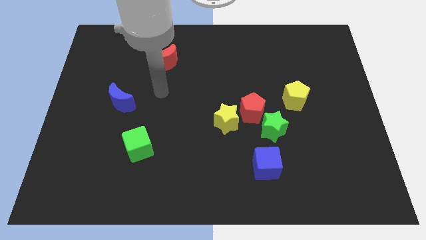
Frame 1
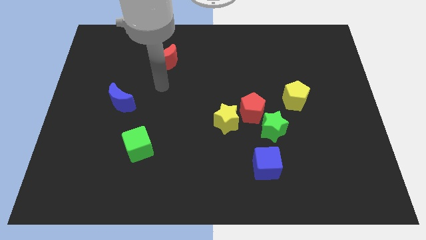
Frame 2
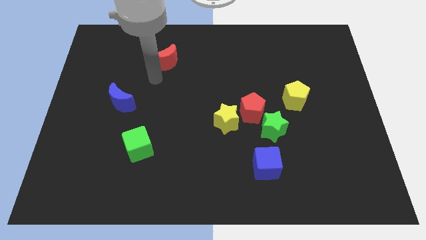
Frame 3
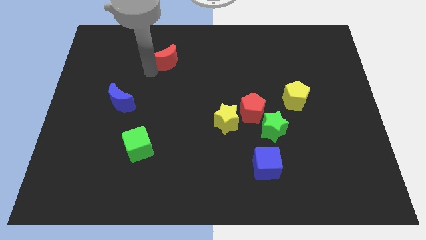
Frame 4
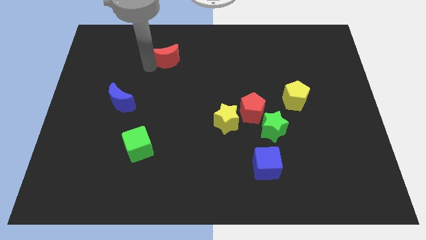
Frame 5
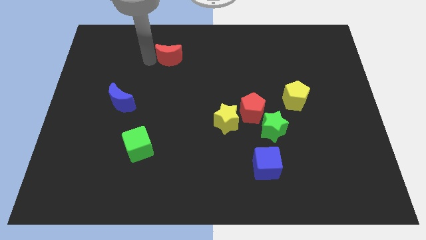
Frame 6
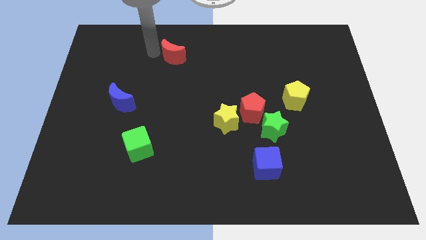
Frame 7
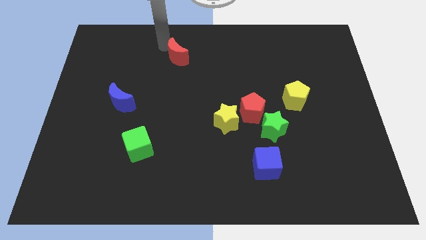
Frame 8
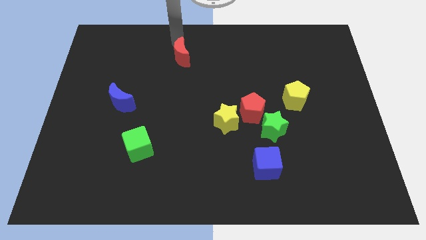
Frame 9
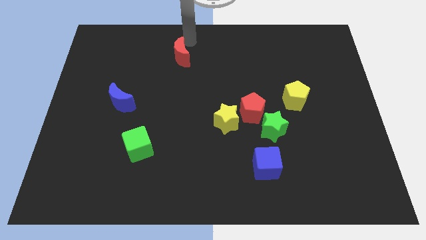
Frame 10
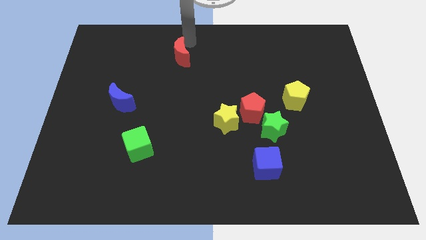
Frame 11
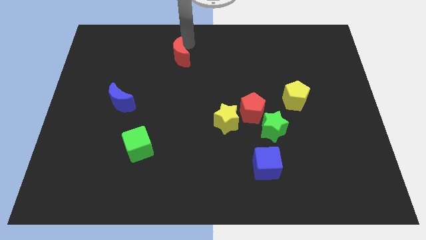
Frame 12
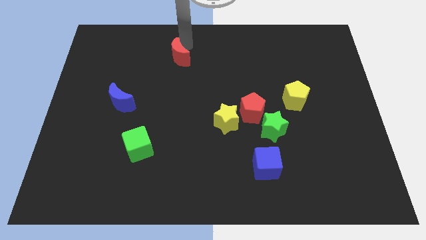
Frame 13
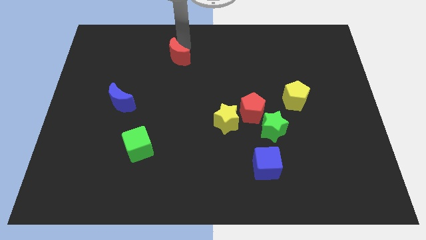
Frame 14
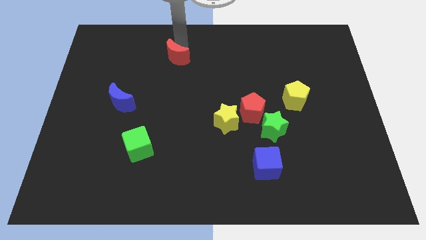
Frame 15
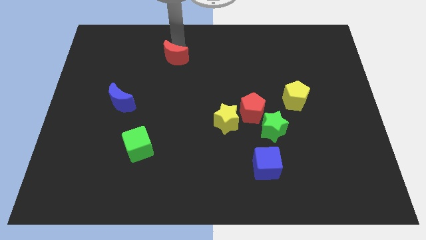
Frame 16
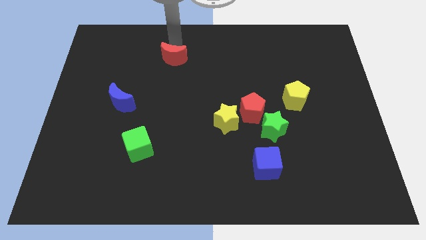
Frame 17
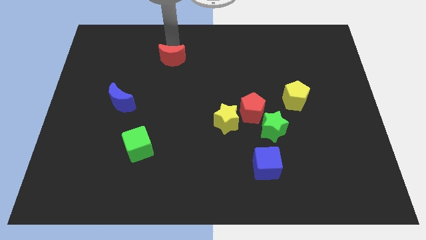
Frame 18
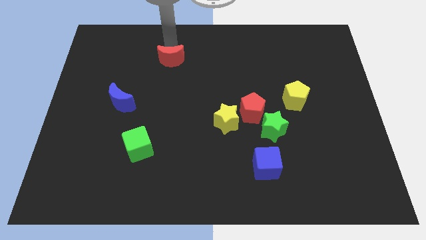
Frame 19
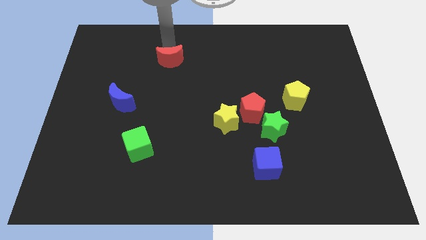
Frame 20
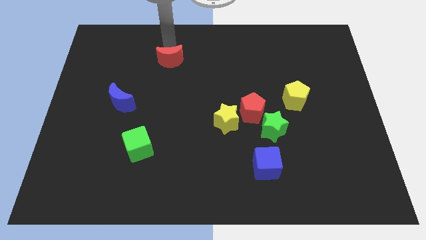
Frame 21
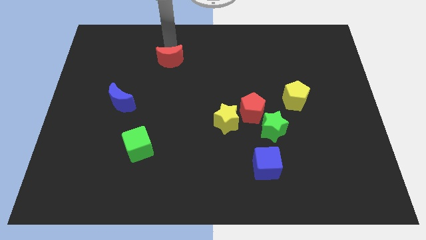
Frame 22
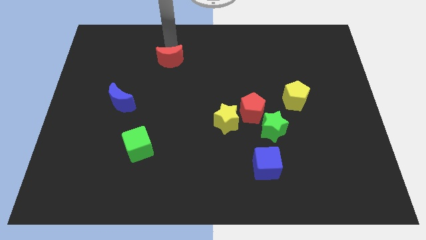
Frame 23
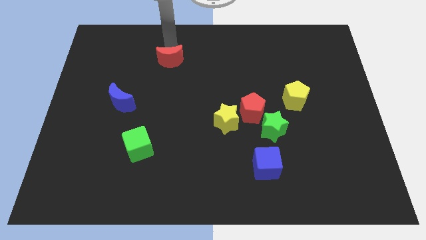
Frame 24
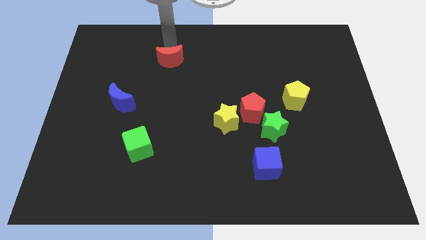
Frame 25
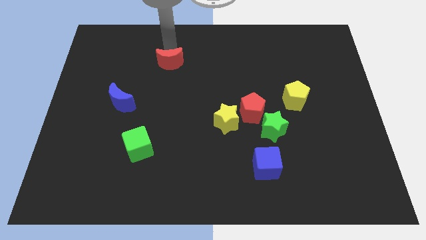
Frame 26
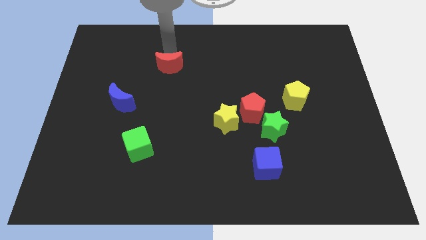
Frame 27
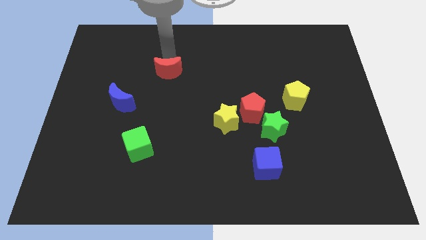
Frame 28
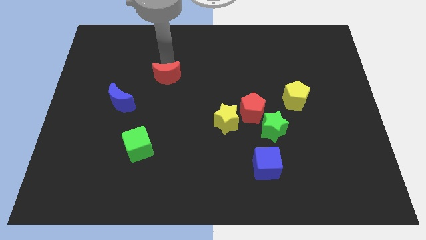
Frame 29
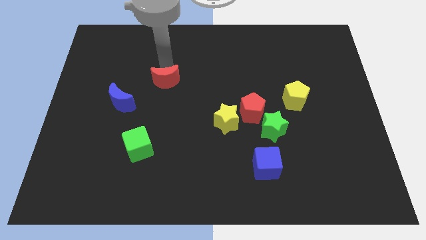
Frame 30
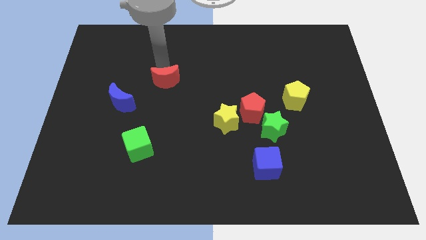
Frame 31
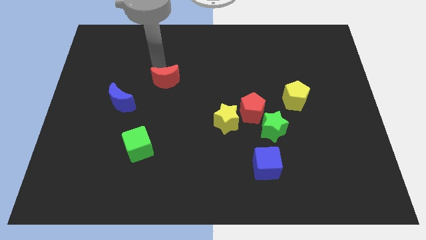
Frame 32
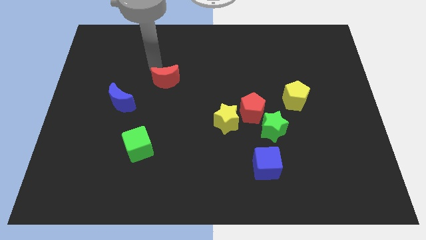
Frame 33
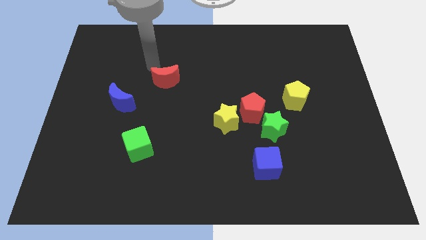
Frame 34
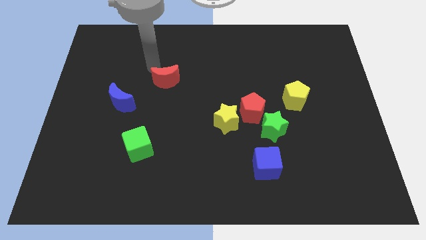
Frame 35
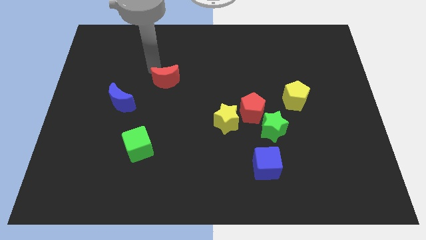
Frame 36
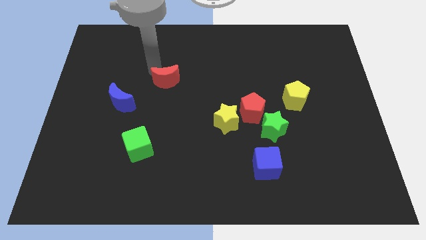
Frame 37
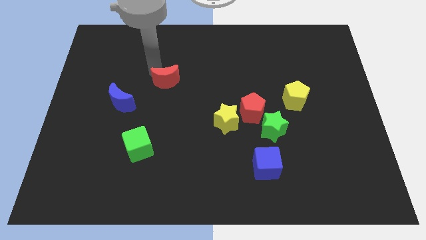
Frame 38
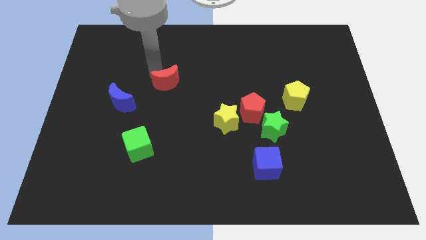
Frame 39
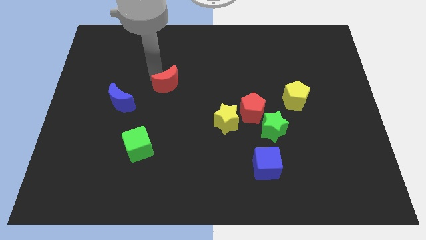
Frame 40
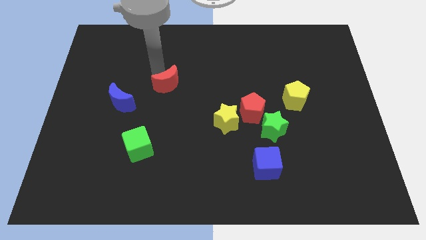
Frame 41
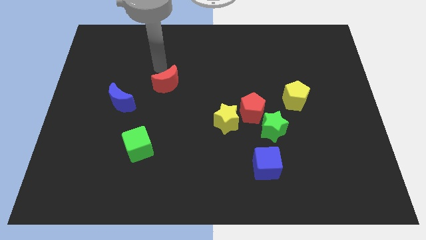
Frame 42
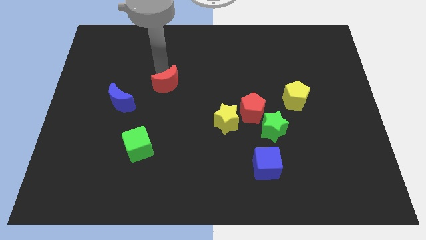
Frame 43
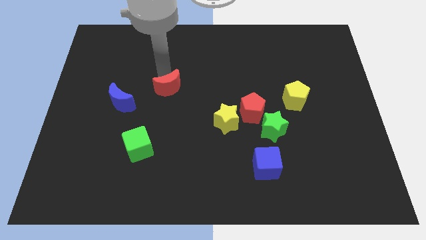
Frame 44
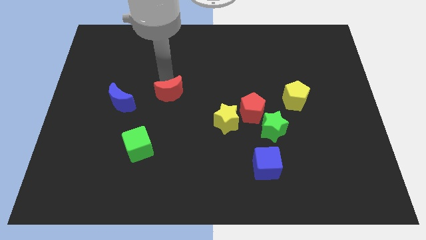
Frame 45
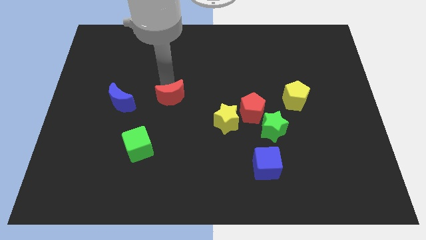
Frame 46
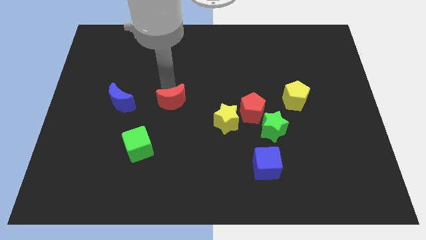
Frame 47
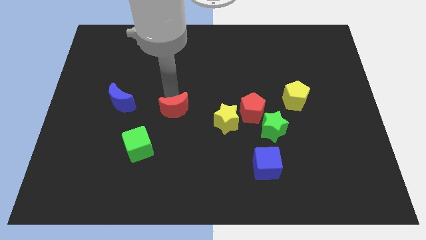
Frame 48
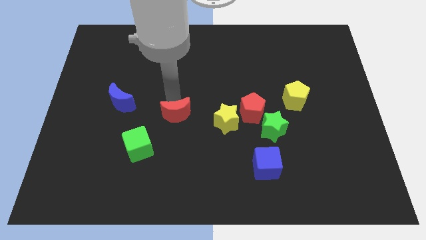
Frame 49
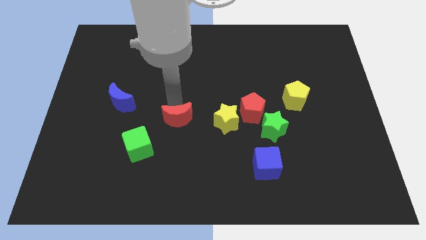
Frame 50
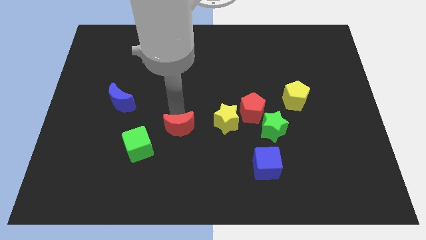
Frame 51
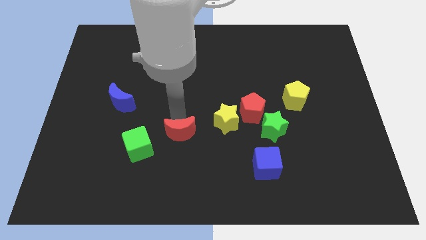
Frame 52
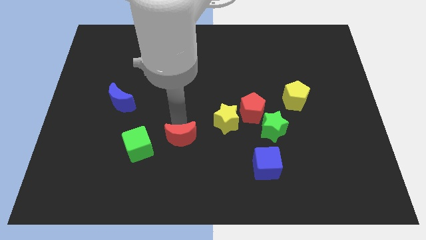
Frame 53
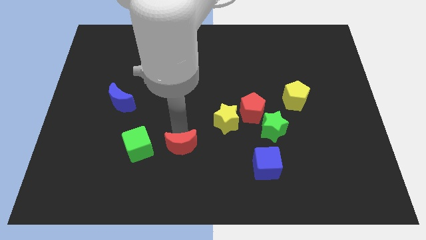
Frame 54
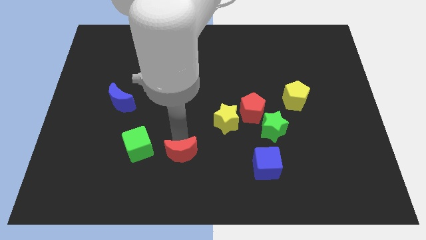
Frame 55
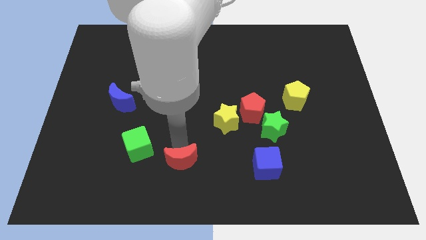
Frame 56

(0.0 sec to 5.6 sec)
push the red moon to the bottom side

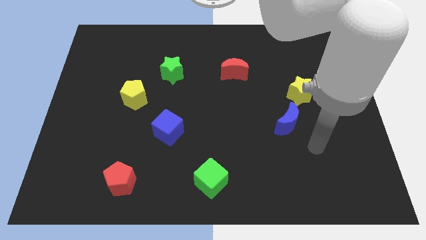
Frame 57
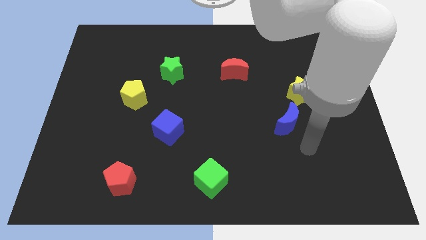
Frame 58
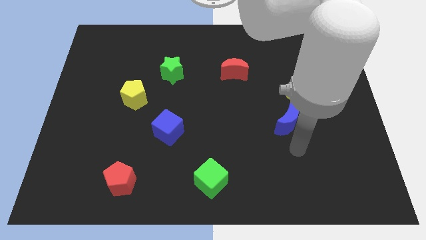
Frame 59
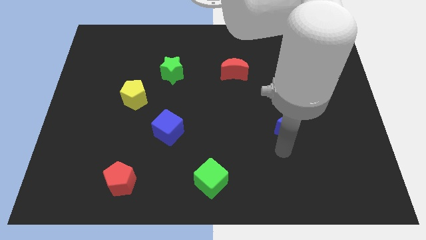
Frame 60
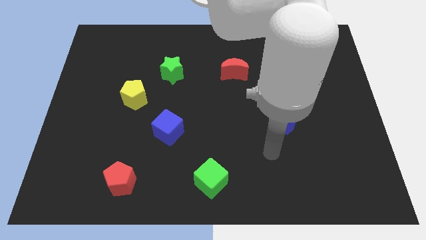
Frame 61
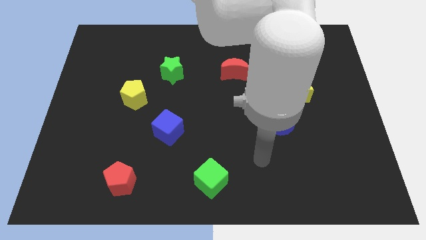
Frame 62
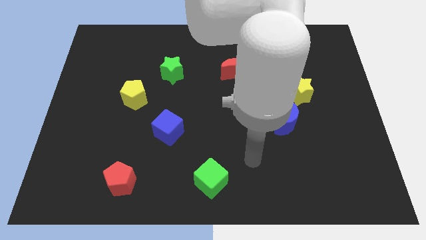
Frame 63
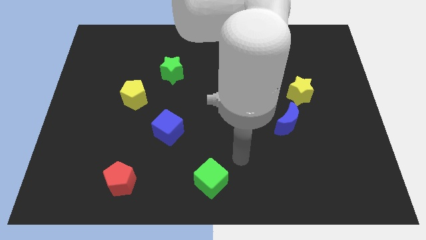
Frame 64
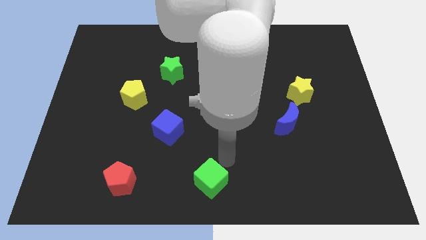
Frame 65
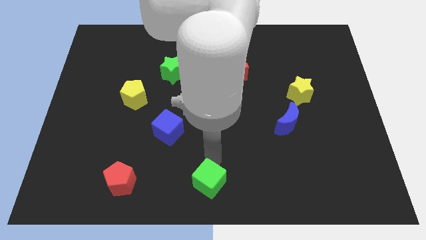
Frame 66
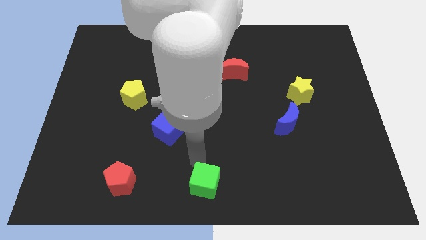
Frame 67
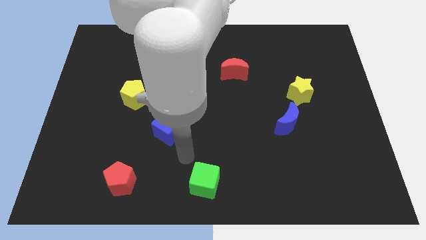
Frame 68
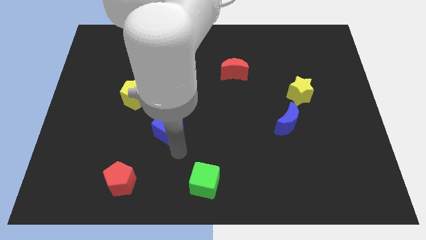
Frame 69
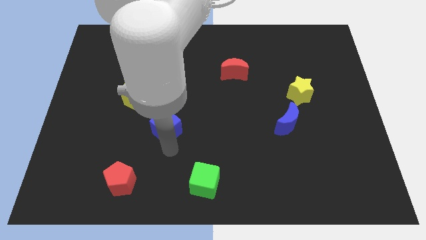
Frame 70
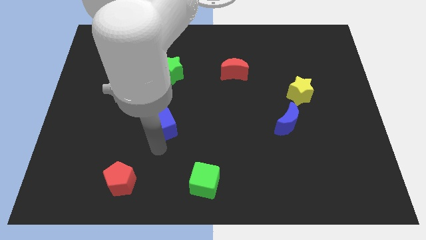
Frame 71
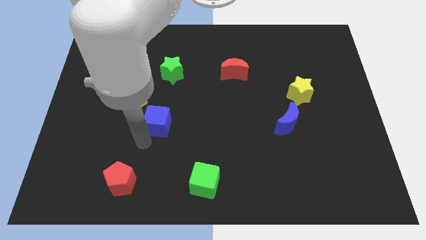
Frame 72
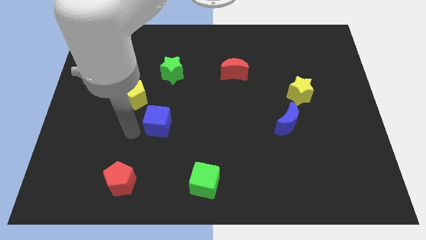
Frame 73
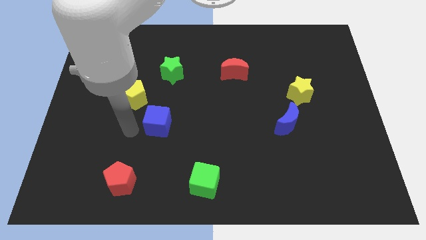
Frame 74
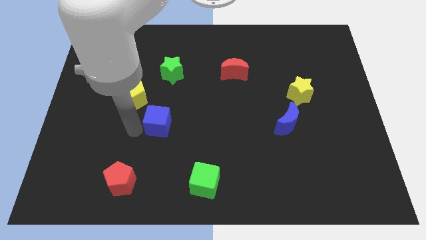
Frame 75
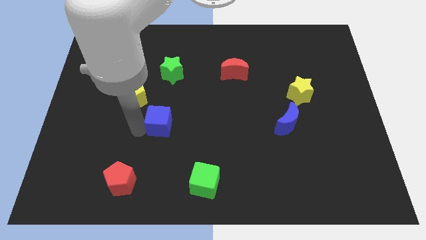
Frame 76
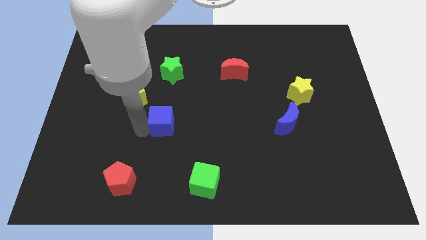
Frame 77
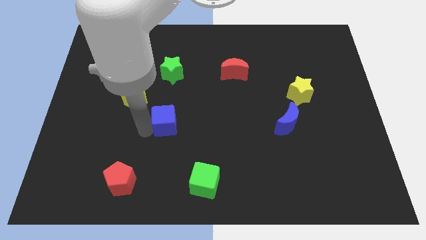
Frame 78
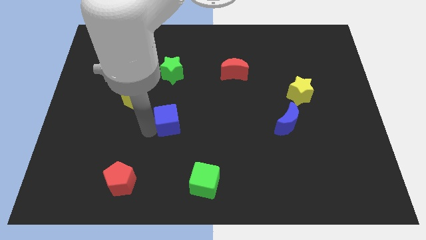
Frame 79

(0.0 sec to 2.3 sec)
move the blue cube to the center
